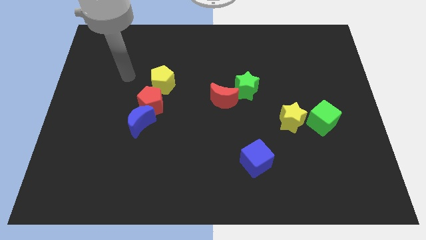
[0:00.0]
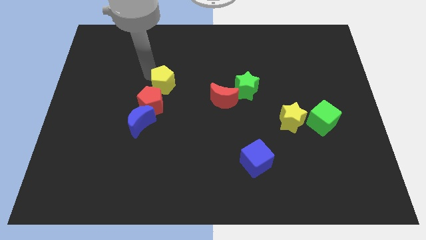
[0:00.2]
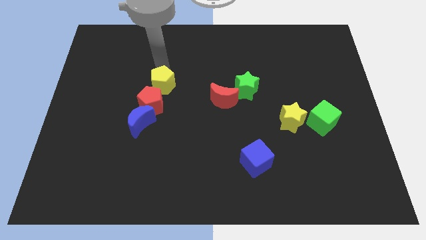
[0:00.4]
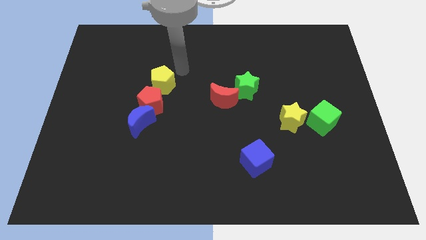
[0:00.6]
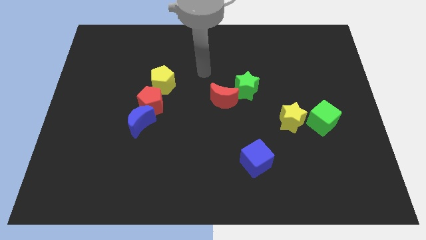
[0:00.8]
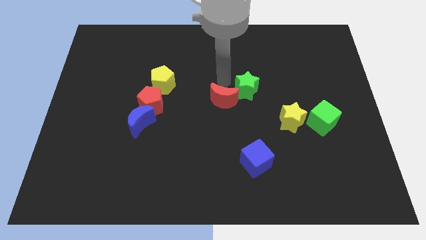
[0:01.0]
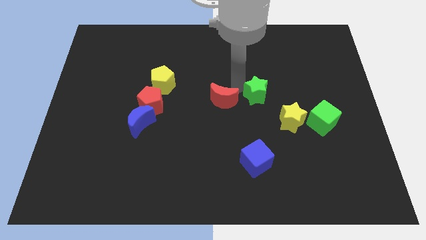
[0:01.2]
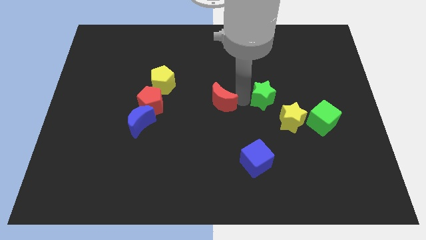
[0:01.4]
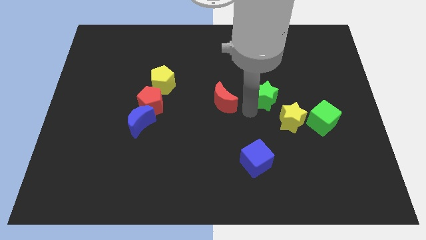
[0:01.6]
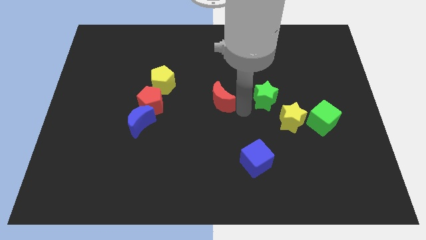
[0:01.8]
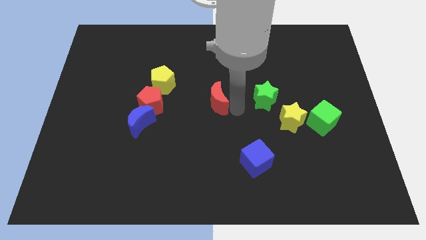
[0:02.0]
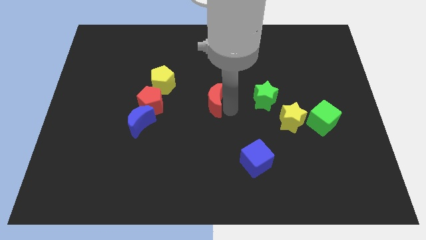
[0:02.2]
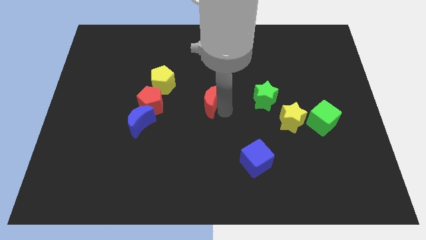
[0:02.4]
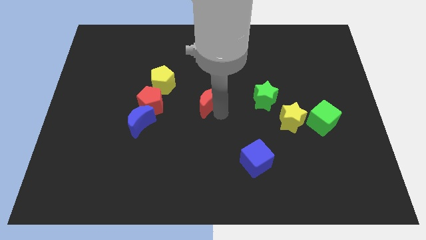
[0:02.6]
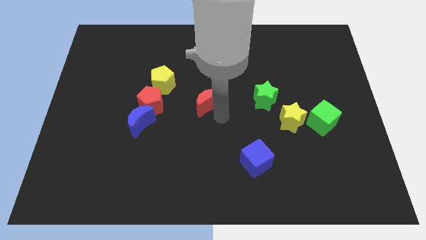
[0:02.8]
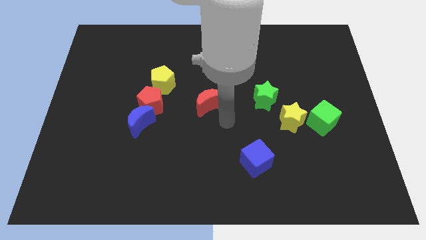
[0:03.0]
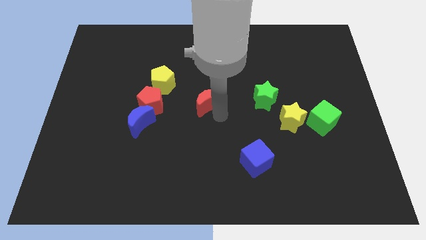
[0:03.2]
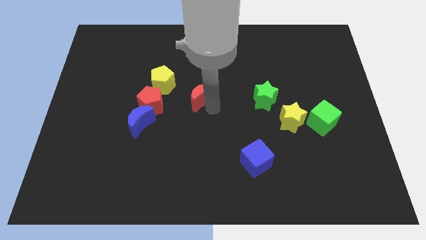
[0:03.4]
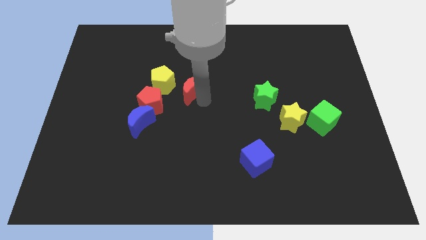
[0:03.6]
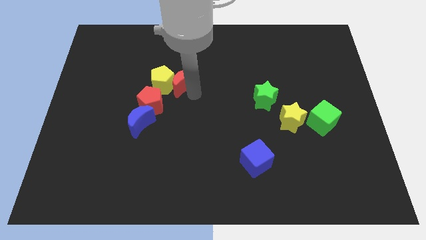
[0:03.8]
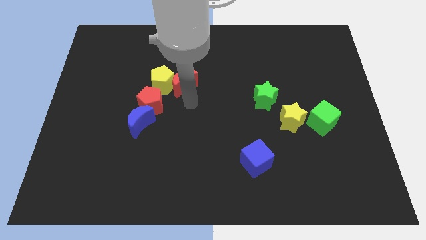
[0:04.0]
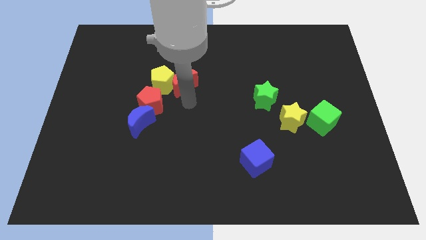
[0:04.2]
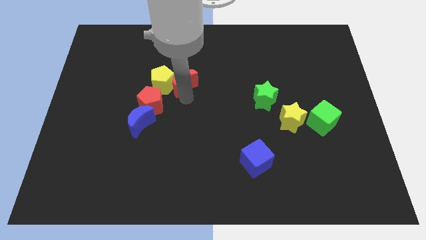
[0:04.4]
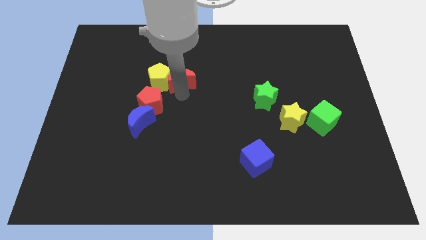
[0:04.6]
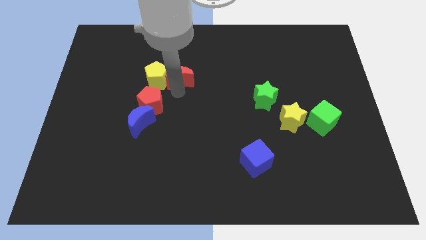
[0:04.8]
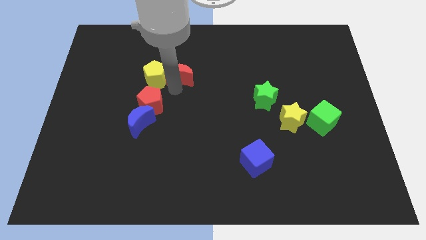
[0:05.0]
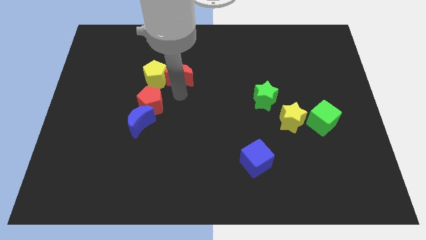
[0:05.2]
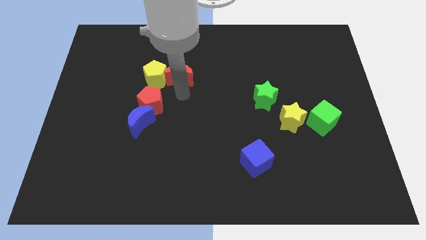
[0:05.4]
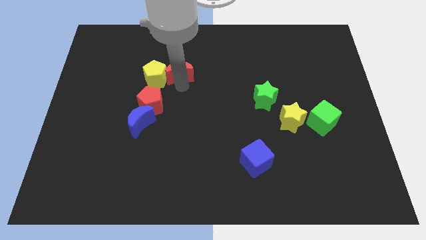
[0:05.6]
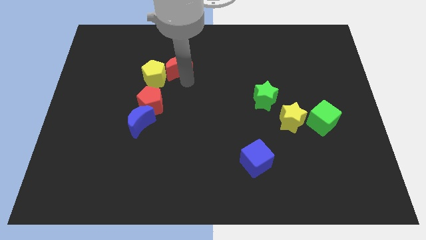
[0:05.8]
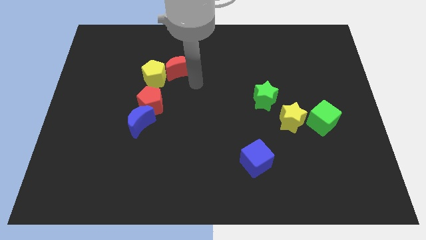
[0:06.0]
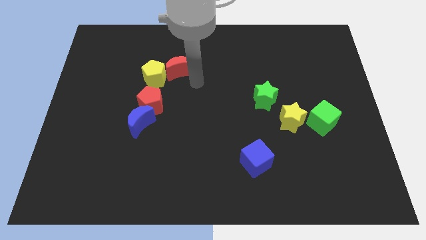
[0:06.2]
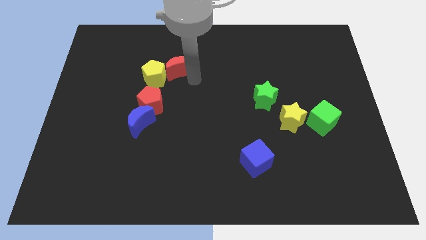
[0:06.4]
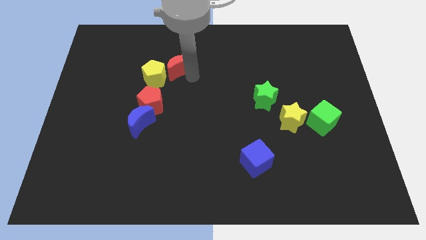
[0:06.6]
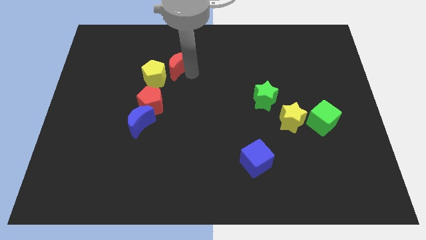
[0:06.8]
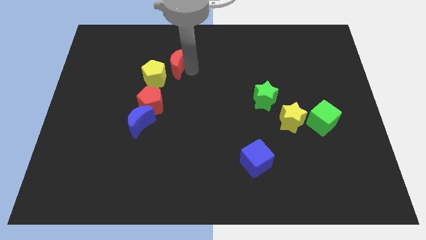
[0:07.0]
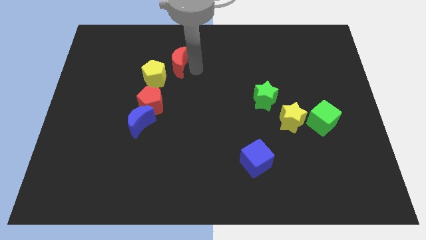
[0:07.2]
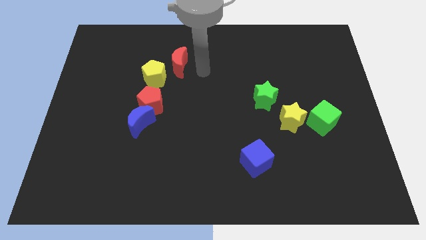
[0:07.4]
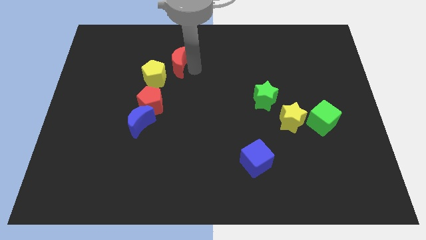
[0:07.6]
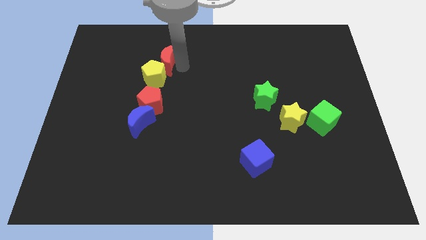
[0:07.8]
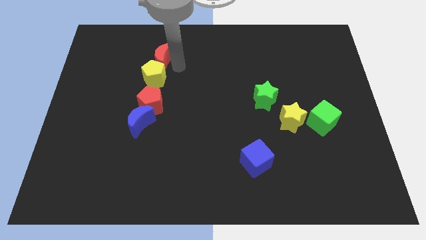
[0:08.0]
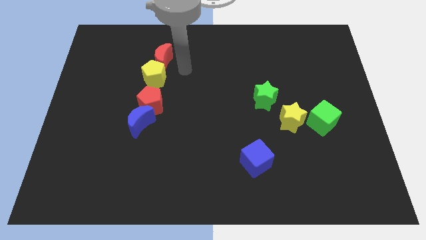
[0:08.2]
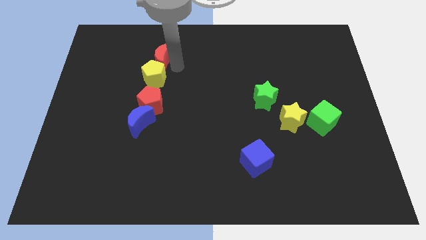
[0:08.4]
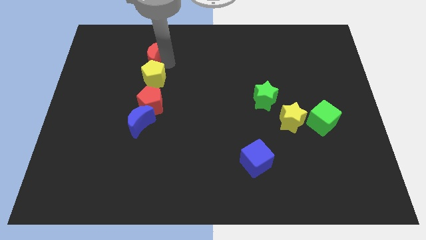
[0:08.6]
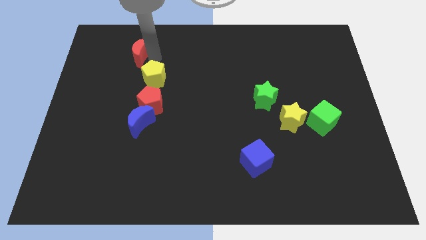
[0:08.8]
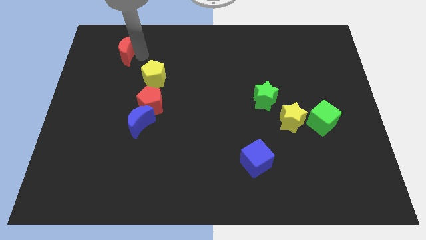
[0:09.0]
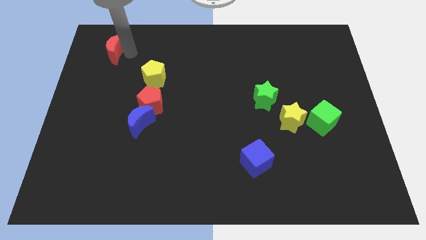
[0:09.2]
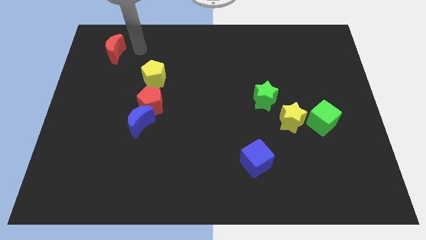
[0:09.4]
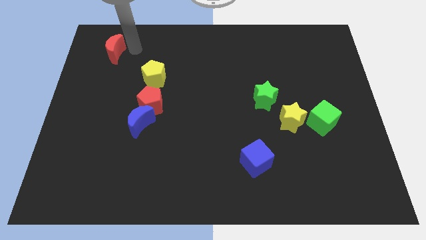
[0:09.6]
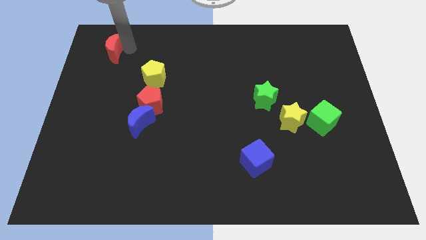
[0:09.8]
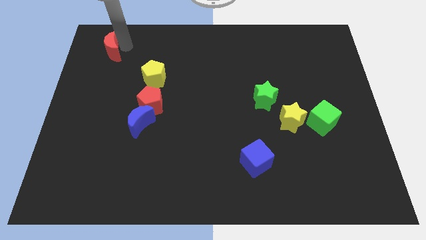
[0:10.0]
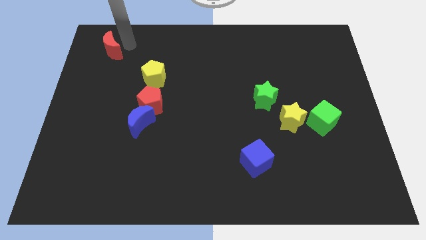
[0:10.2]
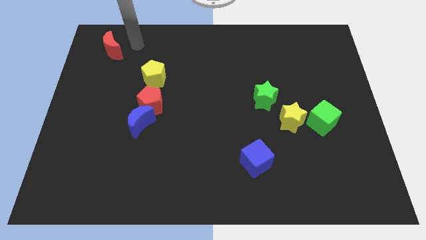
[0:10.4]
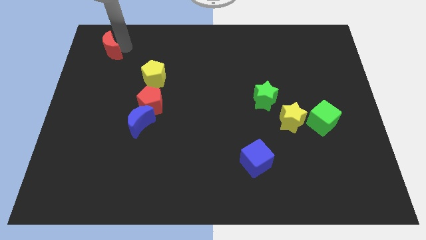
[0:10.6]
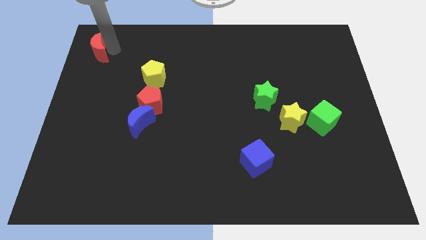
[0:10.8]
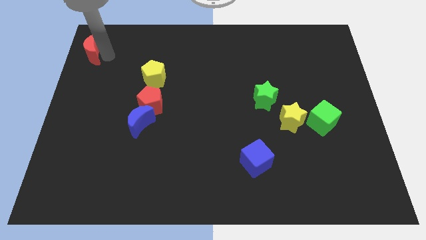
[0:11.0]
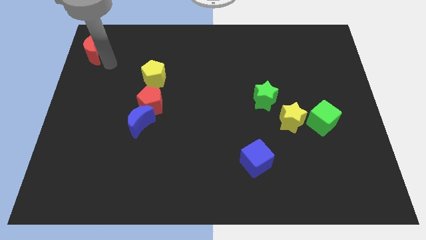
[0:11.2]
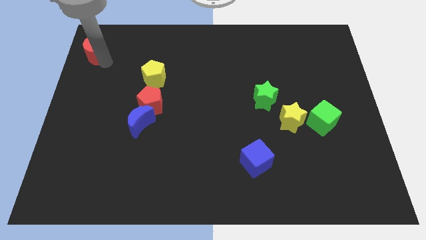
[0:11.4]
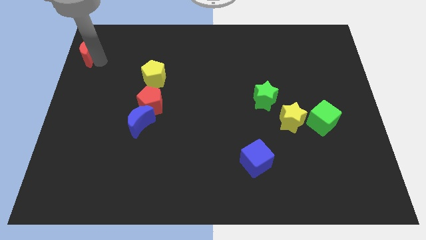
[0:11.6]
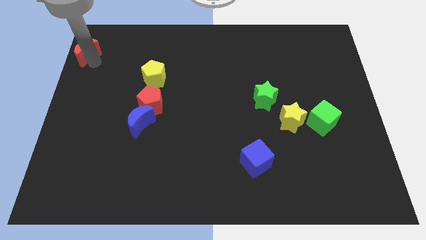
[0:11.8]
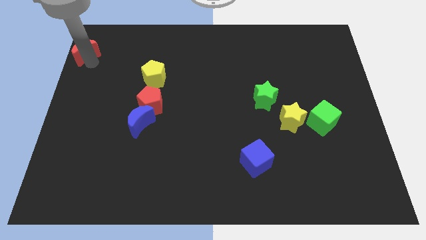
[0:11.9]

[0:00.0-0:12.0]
slide the red moon to the top left

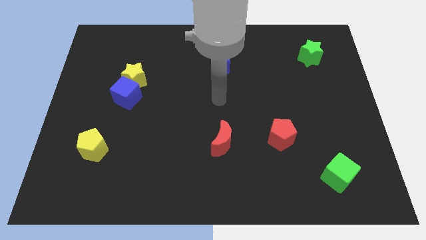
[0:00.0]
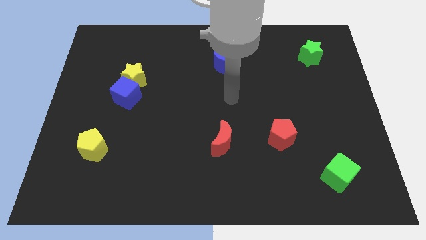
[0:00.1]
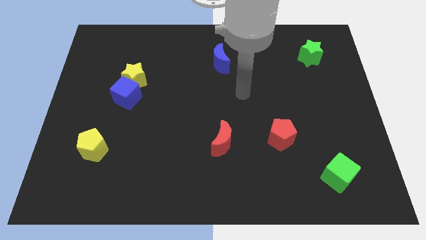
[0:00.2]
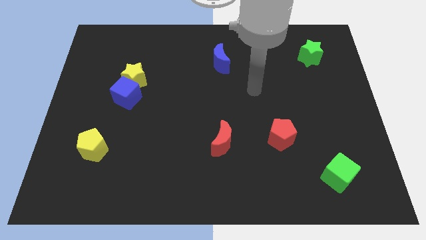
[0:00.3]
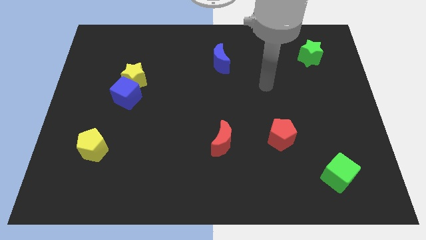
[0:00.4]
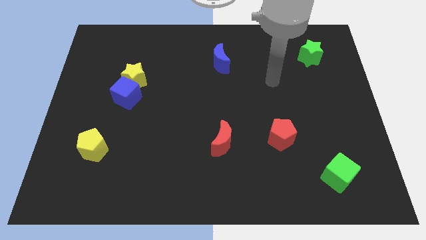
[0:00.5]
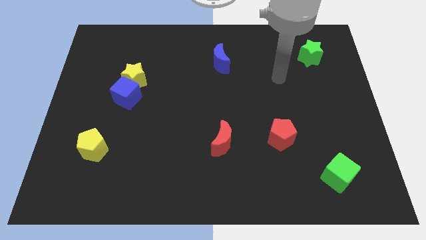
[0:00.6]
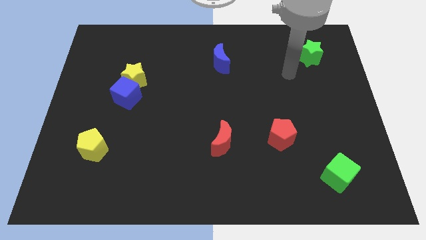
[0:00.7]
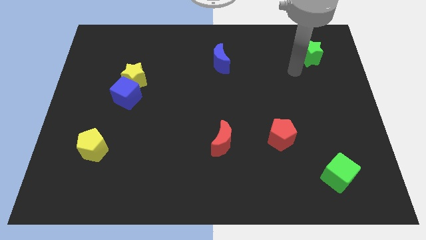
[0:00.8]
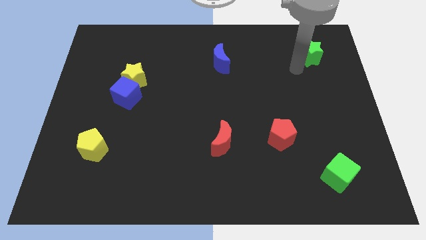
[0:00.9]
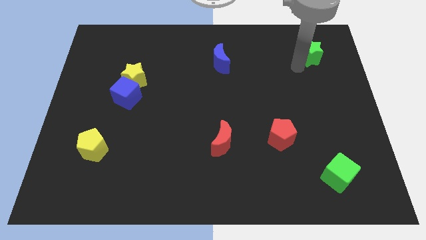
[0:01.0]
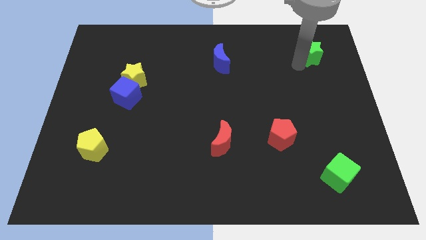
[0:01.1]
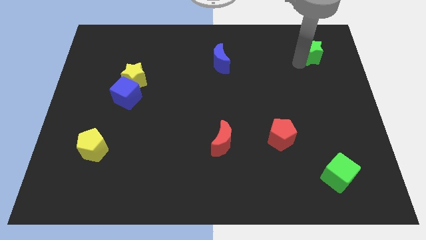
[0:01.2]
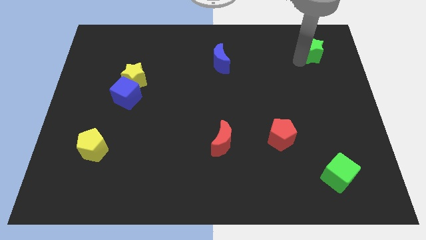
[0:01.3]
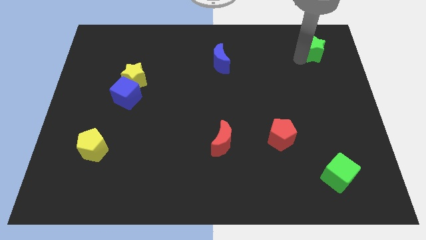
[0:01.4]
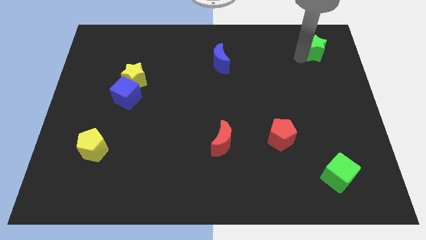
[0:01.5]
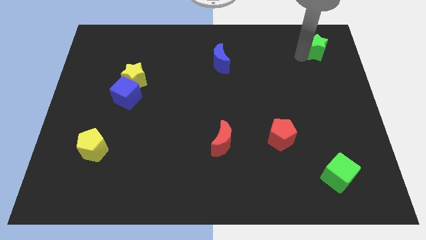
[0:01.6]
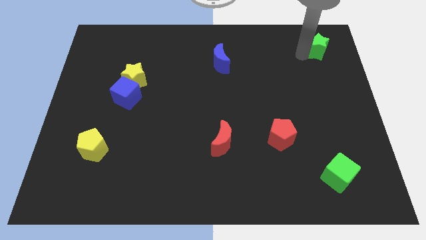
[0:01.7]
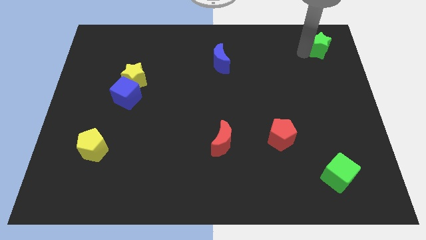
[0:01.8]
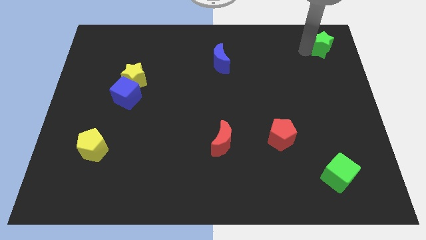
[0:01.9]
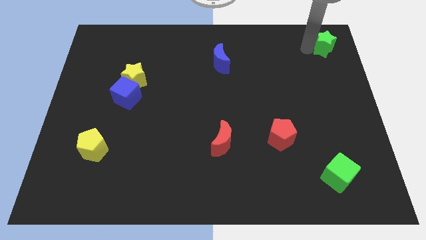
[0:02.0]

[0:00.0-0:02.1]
move the green star to the top right
